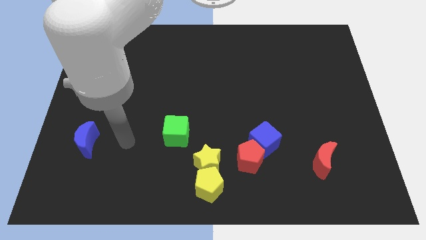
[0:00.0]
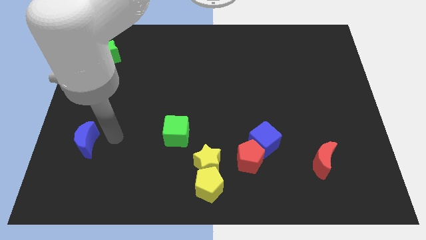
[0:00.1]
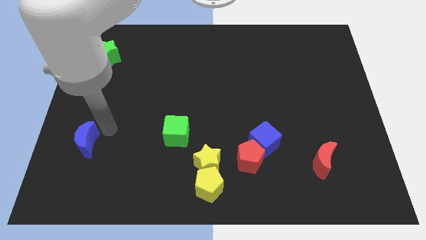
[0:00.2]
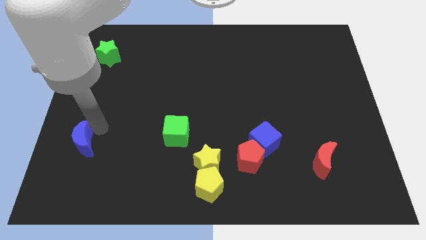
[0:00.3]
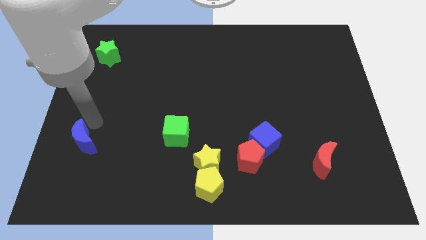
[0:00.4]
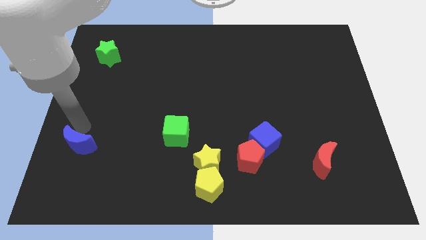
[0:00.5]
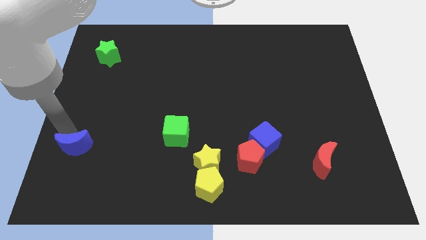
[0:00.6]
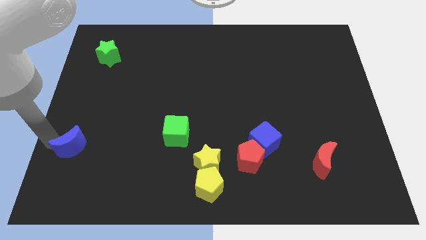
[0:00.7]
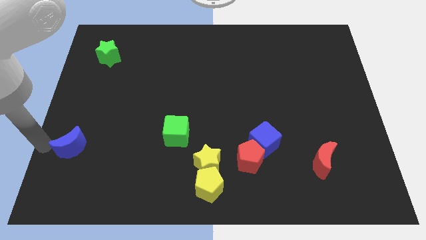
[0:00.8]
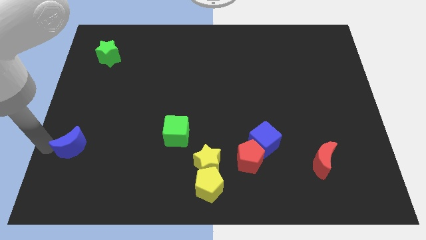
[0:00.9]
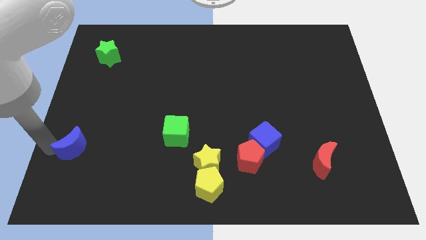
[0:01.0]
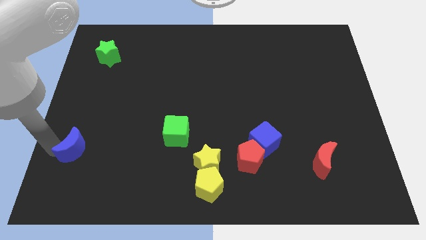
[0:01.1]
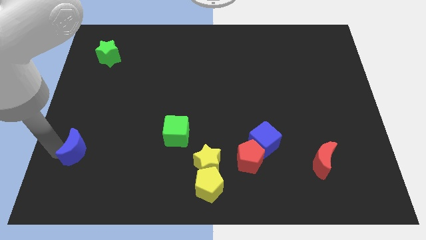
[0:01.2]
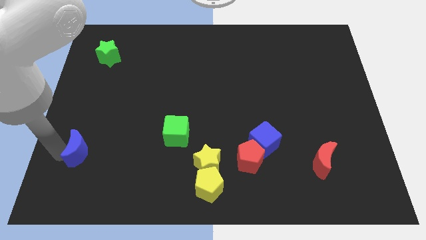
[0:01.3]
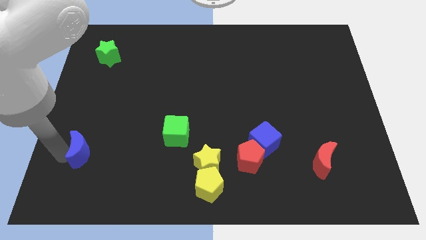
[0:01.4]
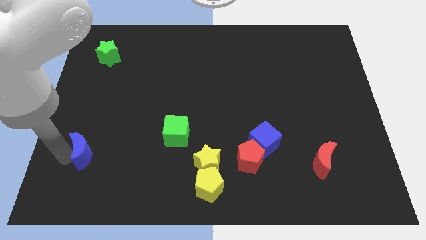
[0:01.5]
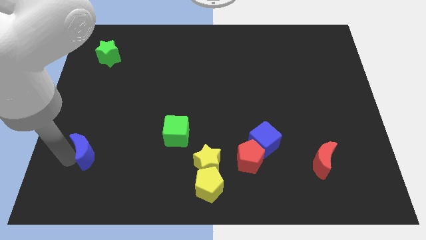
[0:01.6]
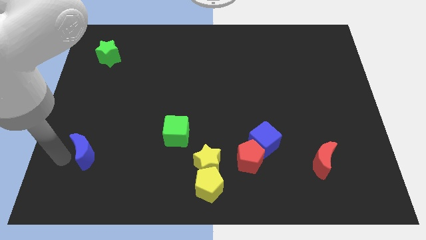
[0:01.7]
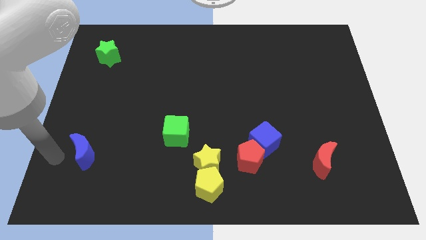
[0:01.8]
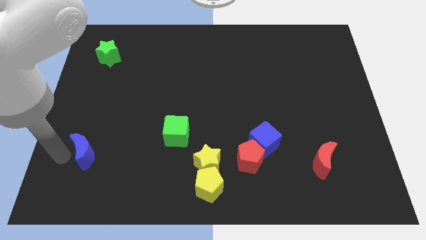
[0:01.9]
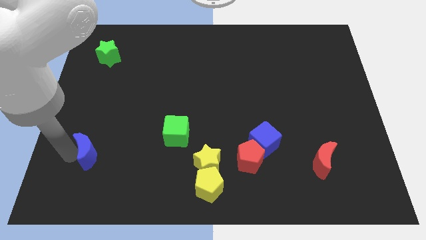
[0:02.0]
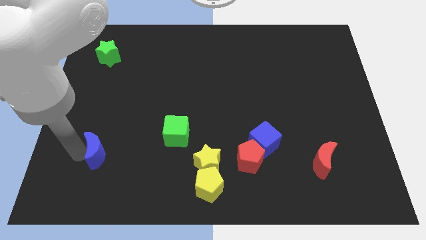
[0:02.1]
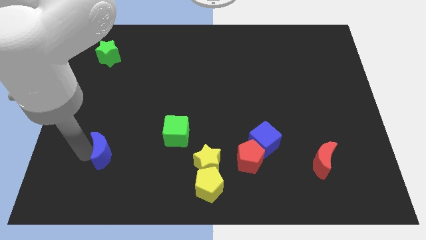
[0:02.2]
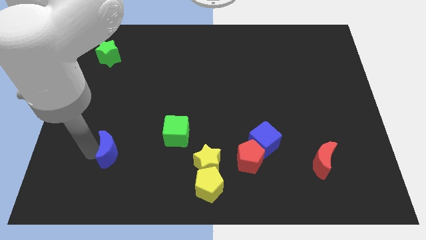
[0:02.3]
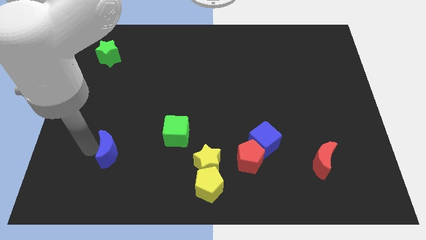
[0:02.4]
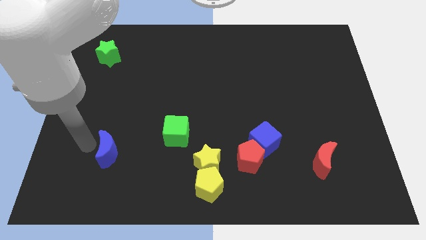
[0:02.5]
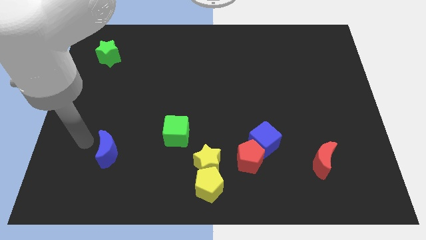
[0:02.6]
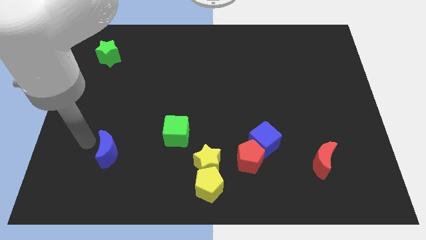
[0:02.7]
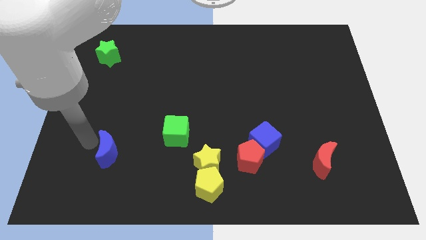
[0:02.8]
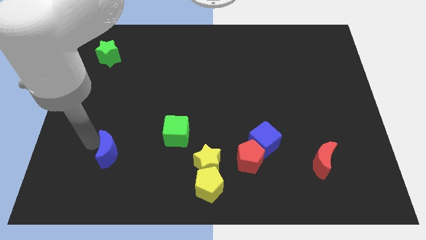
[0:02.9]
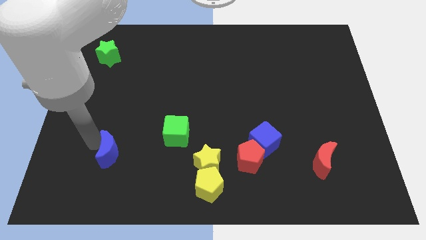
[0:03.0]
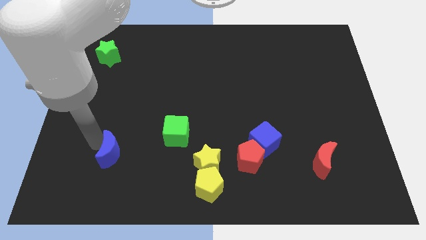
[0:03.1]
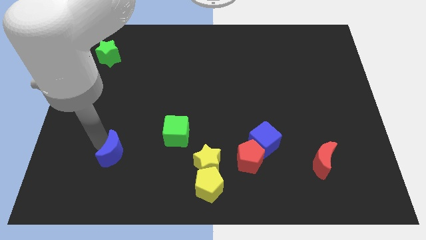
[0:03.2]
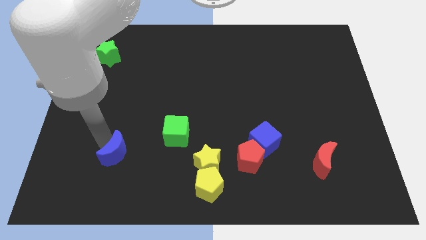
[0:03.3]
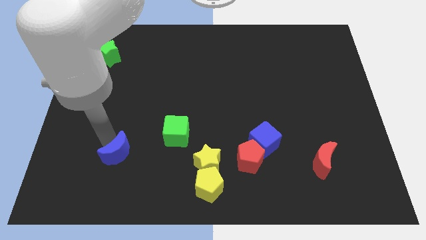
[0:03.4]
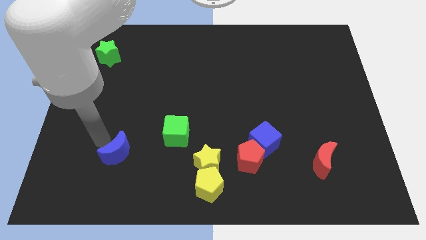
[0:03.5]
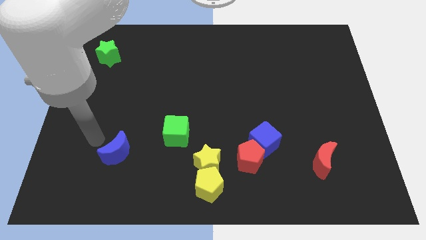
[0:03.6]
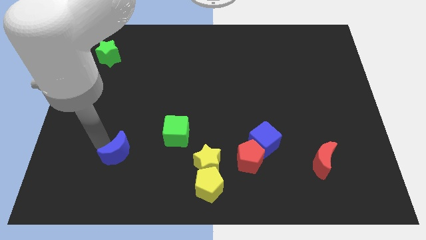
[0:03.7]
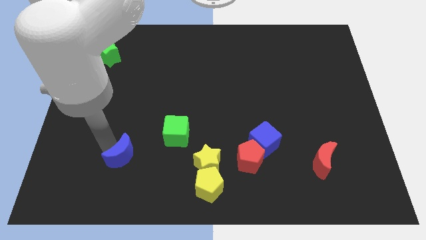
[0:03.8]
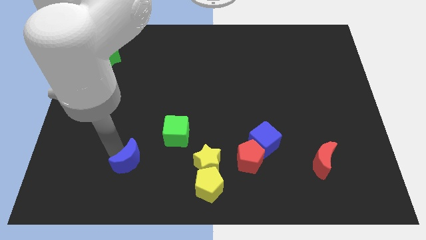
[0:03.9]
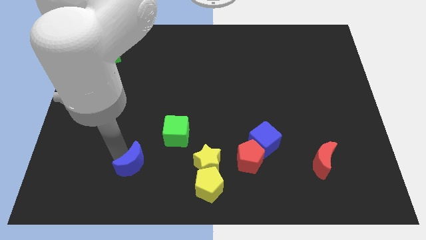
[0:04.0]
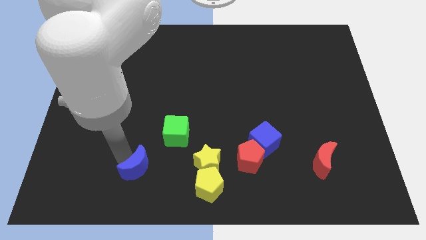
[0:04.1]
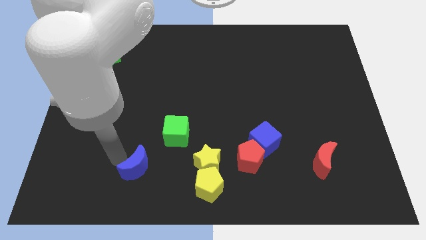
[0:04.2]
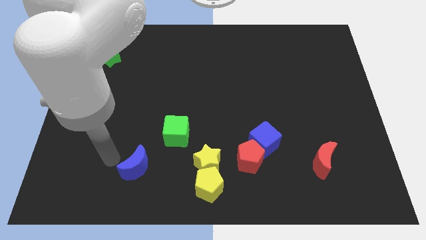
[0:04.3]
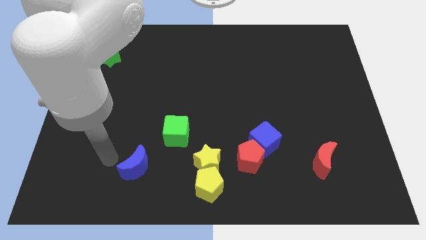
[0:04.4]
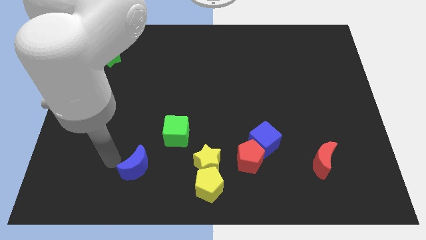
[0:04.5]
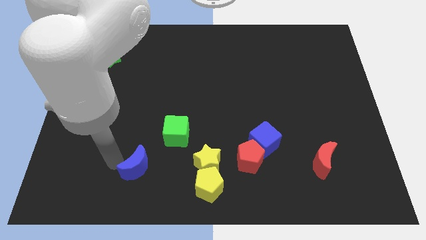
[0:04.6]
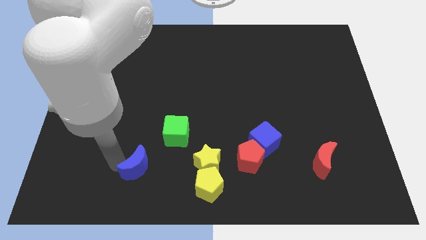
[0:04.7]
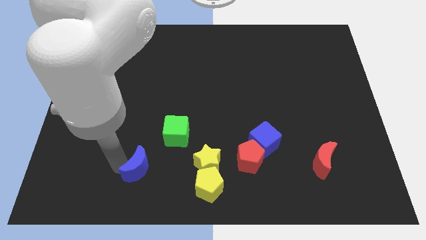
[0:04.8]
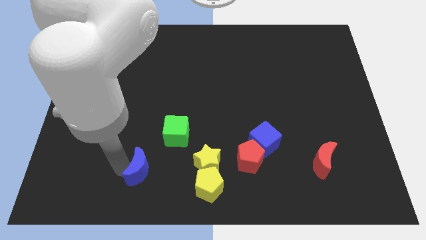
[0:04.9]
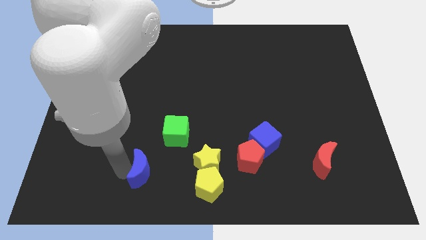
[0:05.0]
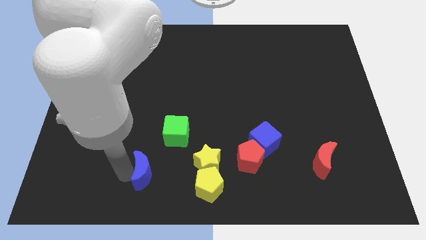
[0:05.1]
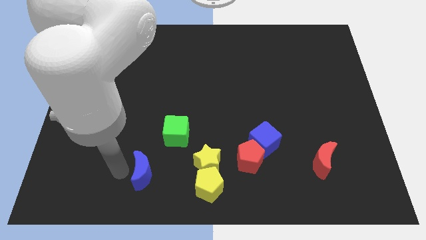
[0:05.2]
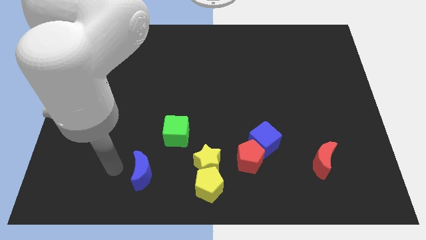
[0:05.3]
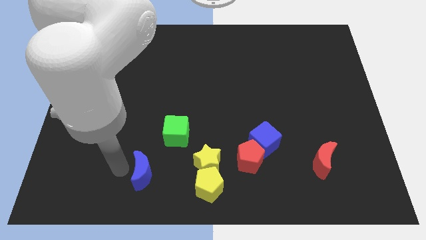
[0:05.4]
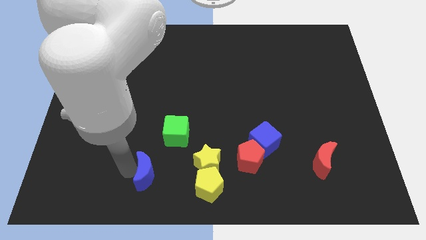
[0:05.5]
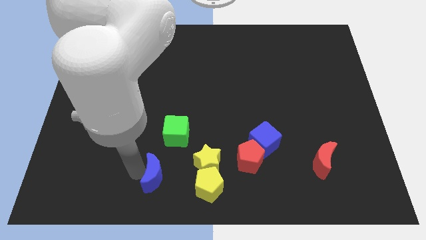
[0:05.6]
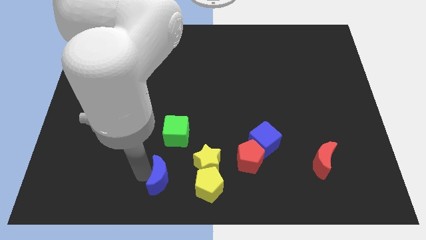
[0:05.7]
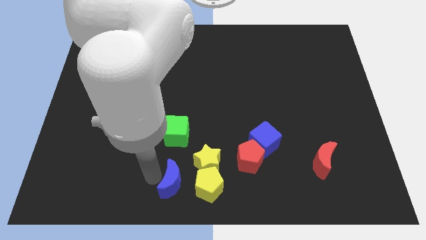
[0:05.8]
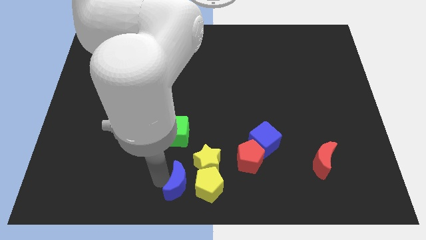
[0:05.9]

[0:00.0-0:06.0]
slide the blue moon next to the yellow pentagon
